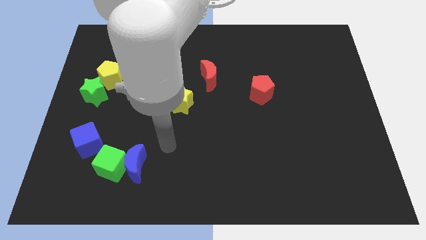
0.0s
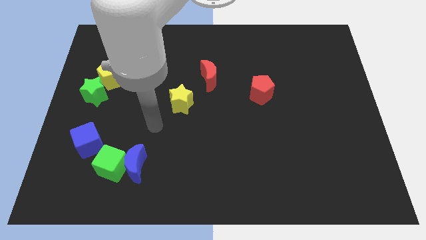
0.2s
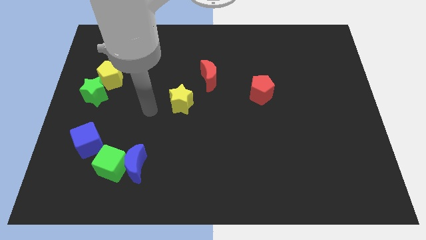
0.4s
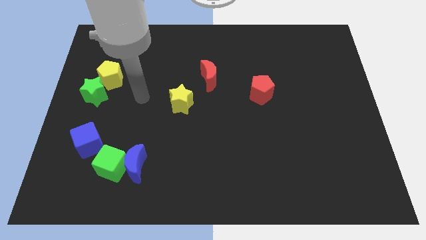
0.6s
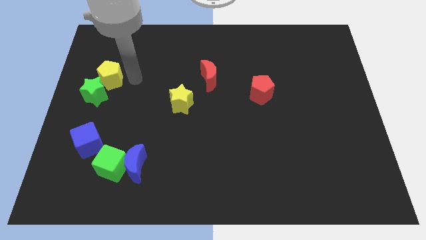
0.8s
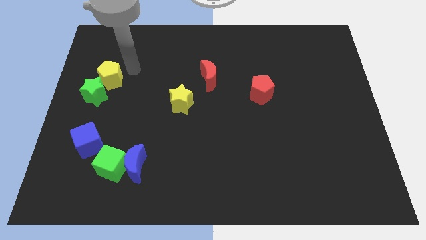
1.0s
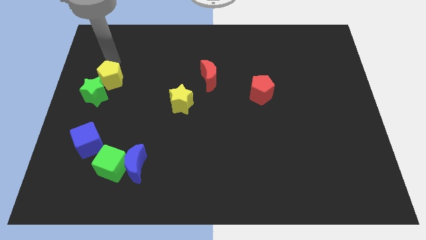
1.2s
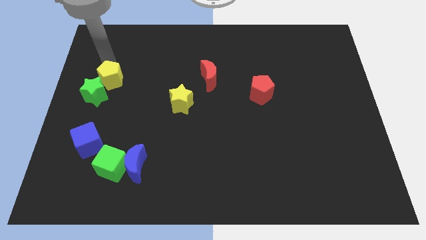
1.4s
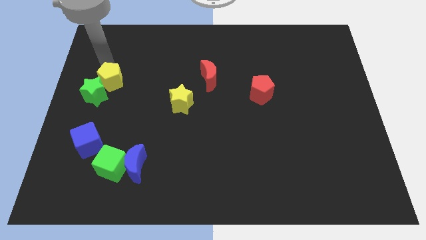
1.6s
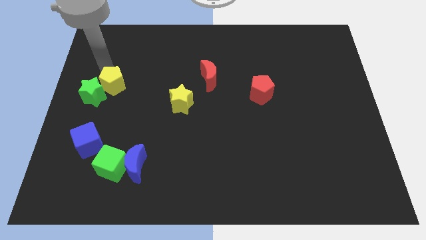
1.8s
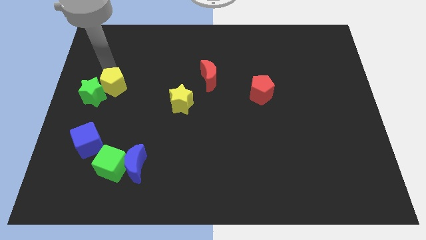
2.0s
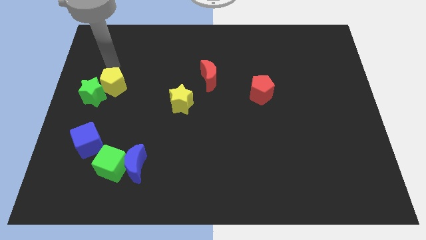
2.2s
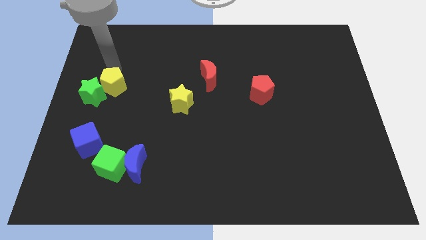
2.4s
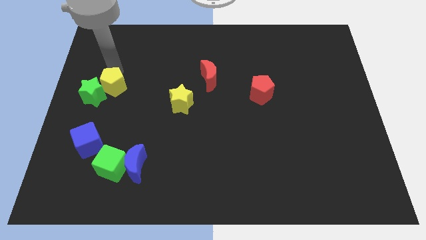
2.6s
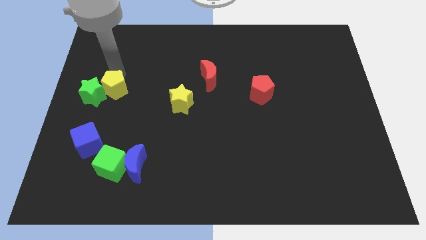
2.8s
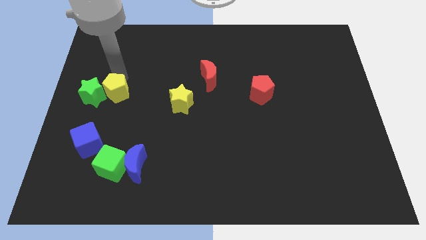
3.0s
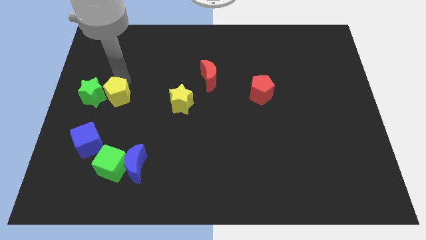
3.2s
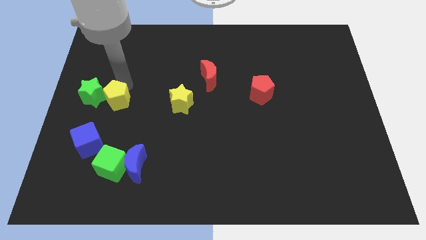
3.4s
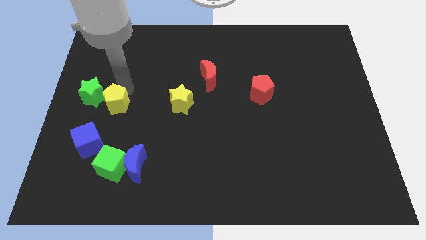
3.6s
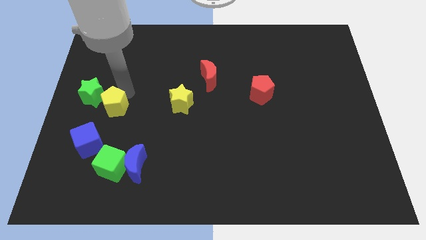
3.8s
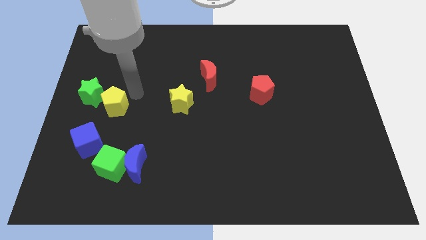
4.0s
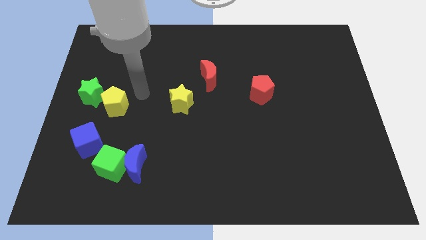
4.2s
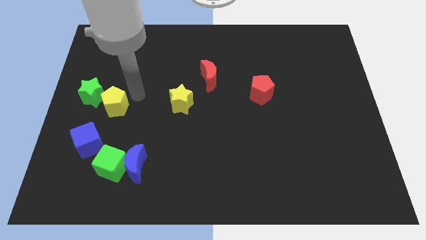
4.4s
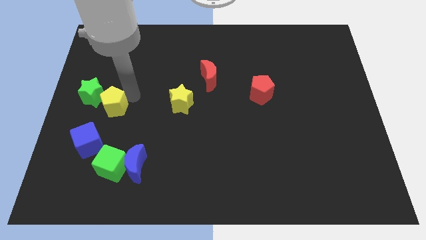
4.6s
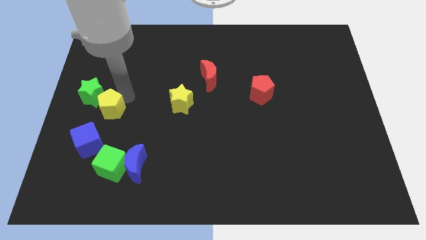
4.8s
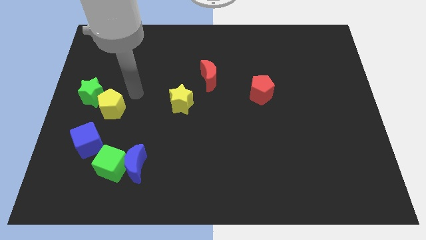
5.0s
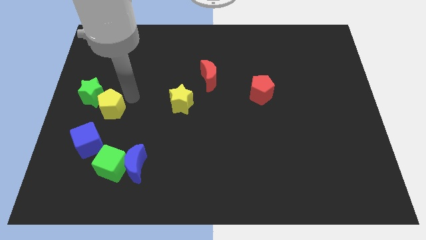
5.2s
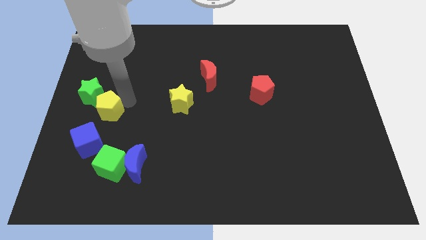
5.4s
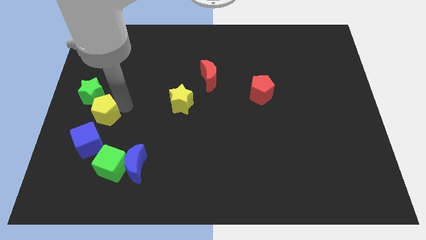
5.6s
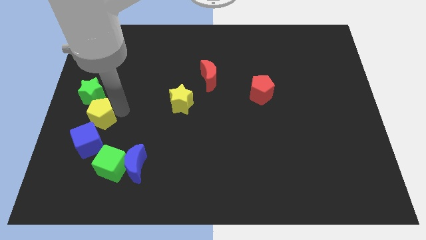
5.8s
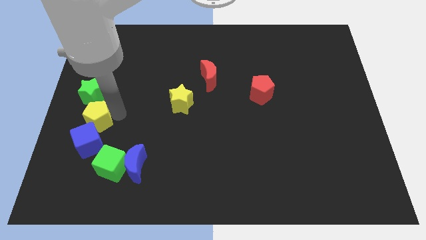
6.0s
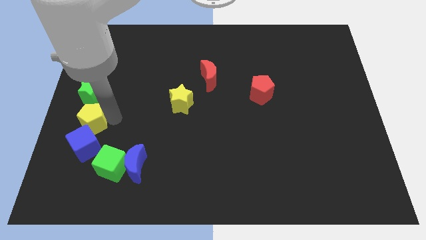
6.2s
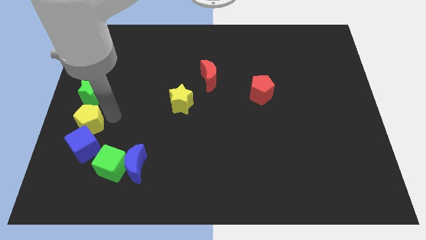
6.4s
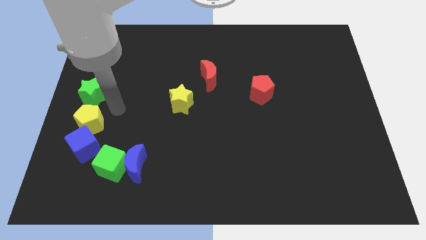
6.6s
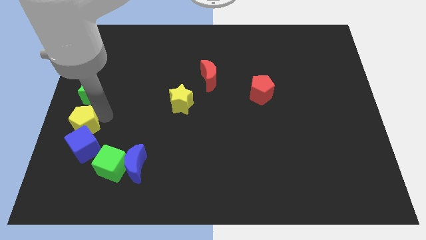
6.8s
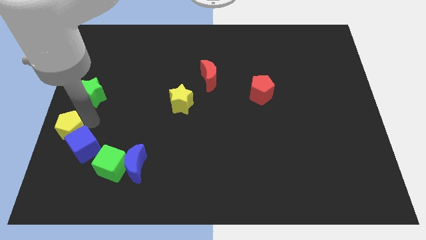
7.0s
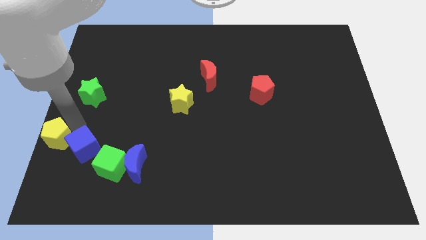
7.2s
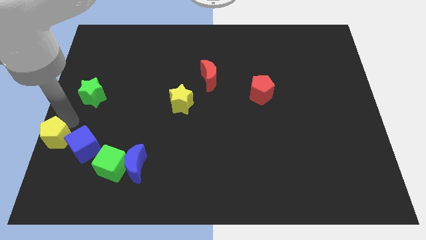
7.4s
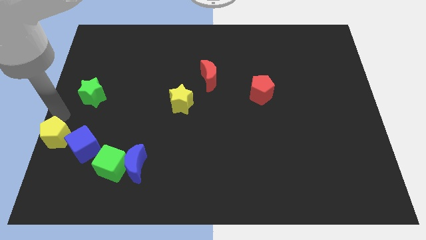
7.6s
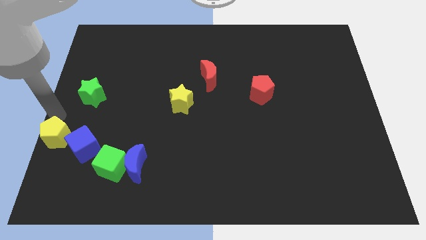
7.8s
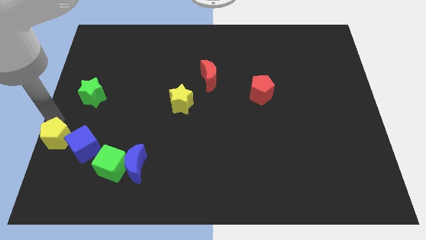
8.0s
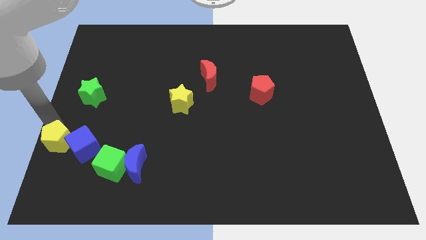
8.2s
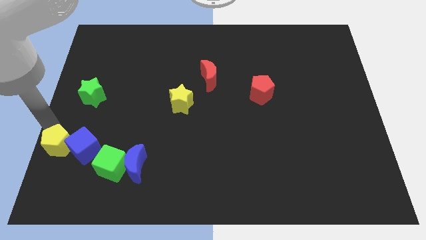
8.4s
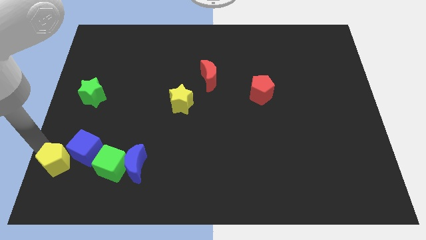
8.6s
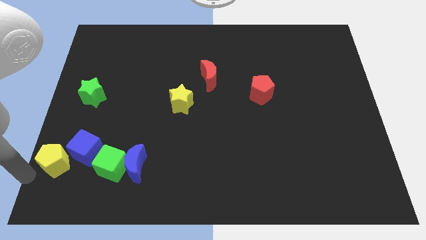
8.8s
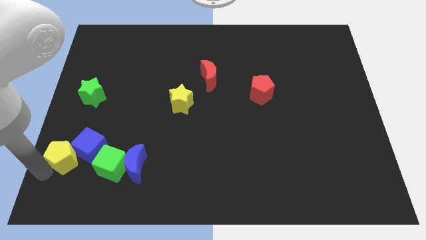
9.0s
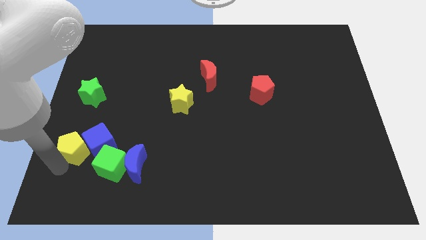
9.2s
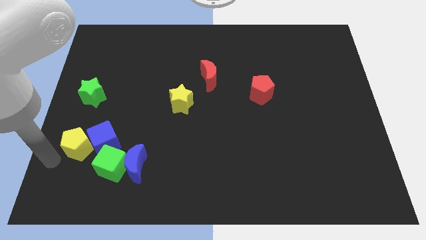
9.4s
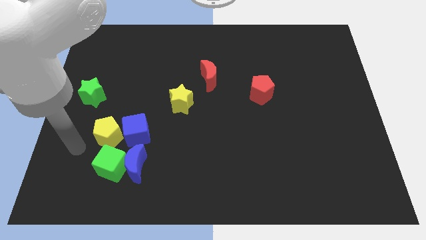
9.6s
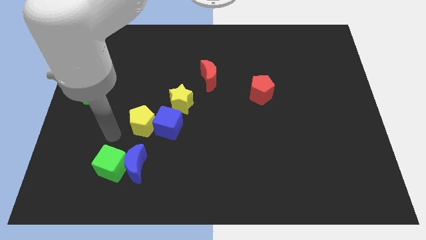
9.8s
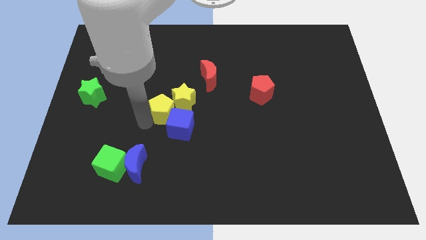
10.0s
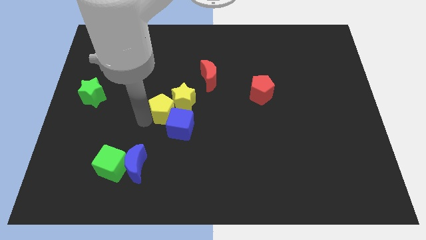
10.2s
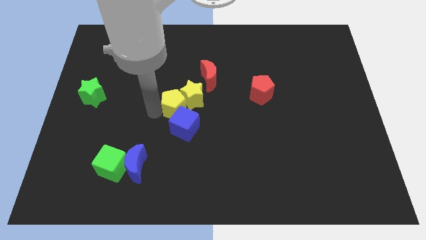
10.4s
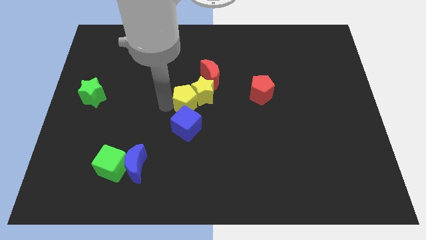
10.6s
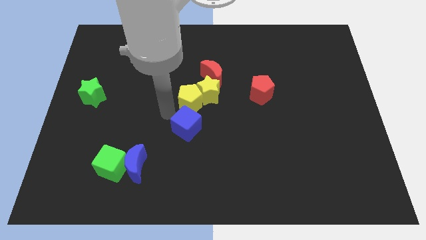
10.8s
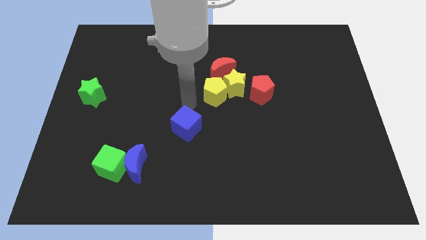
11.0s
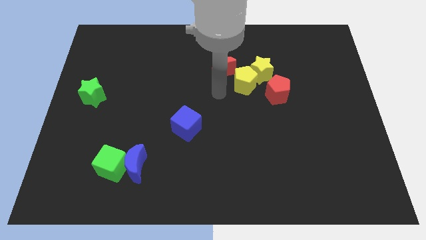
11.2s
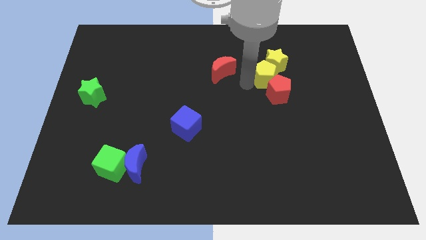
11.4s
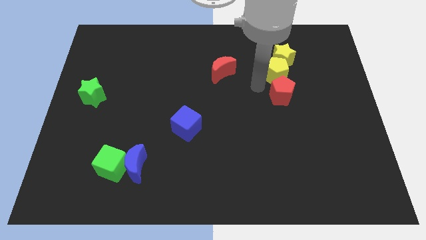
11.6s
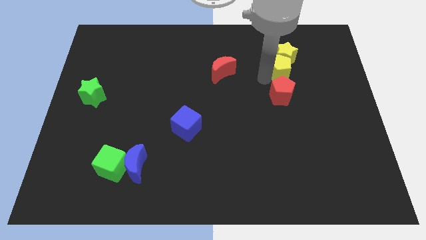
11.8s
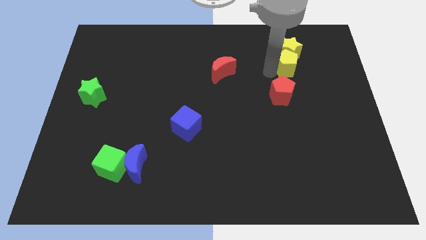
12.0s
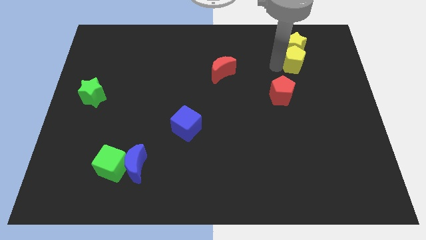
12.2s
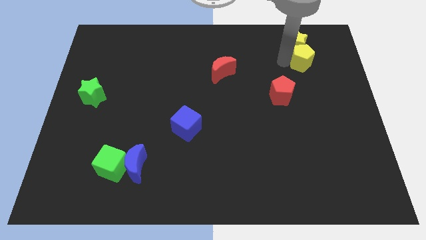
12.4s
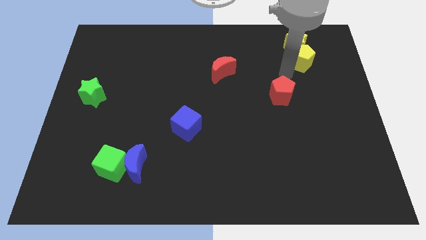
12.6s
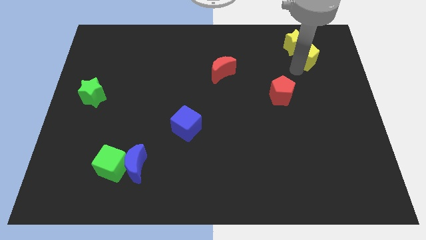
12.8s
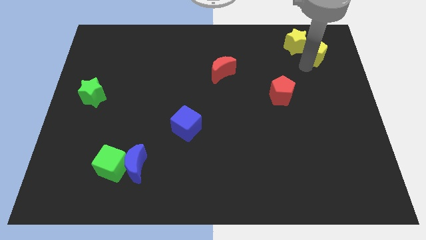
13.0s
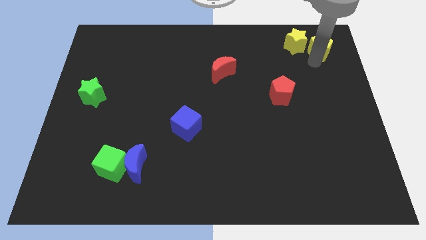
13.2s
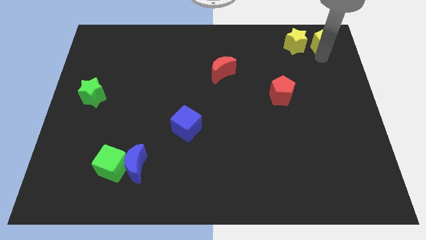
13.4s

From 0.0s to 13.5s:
slide the yellow pentagon to the upper right corner

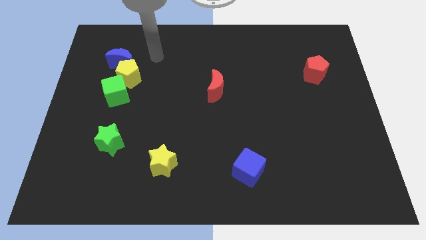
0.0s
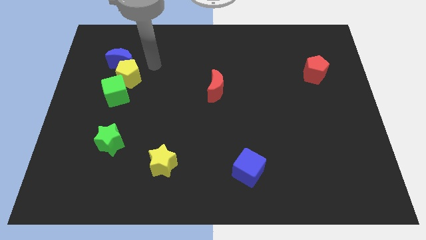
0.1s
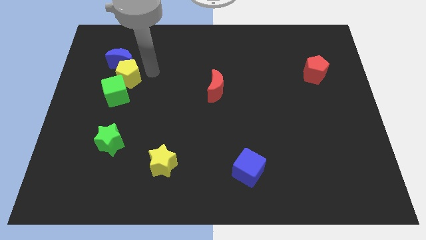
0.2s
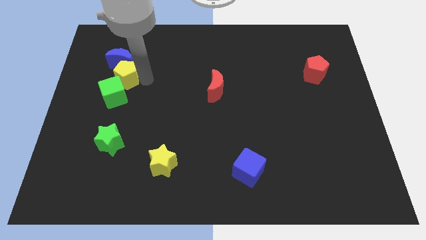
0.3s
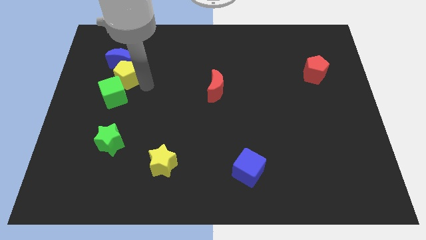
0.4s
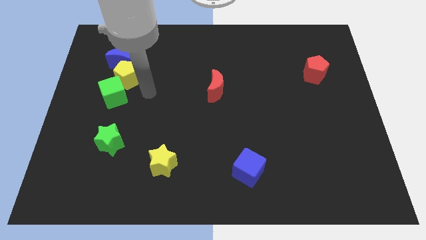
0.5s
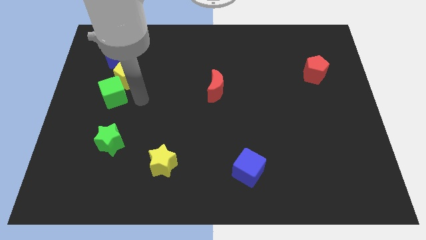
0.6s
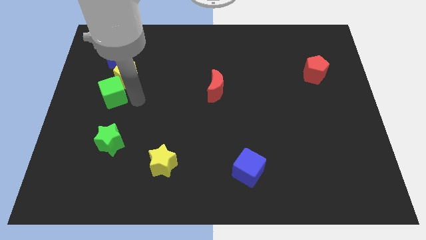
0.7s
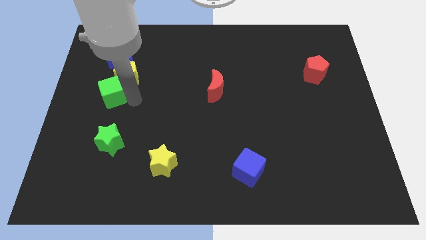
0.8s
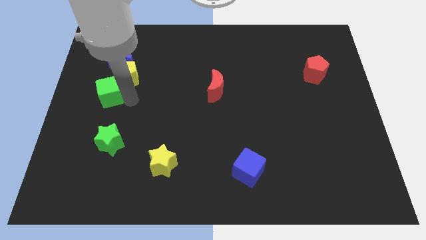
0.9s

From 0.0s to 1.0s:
put the green cube to the left side
